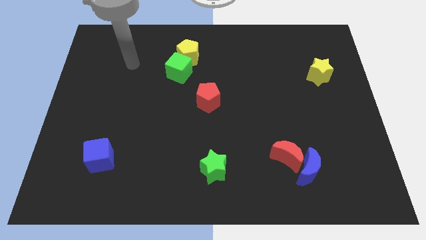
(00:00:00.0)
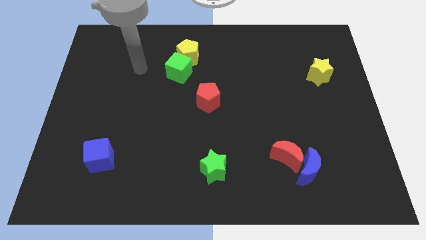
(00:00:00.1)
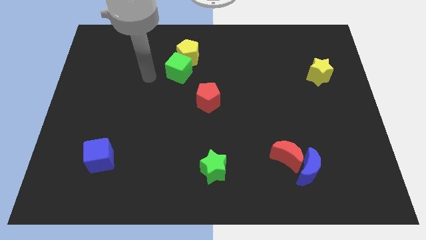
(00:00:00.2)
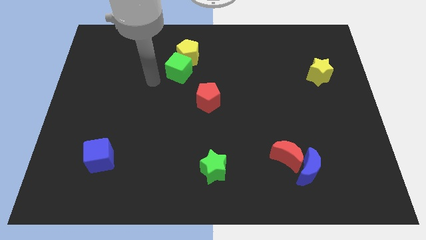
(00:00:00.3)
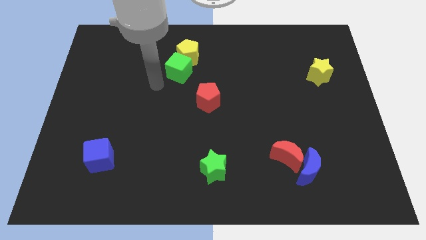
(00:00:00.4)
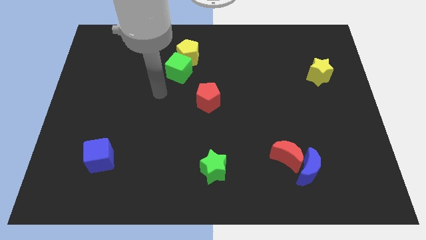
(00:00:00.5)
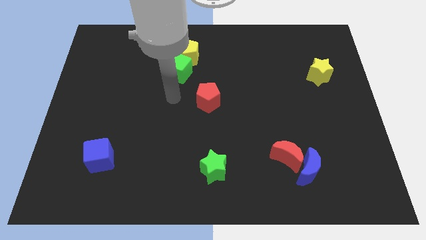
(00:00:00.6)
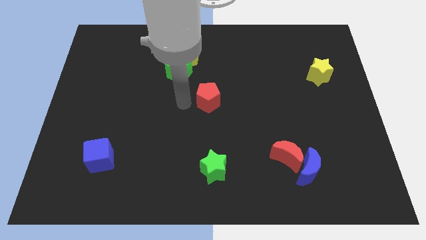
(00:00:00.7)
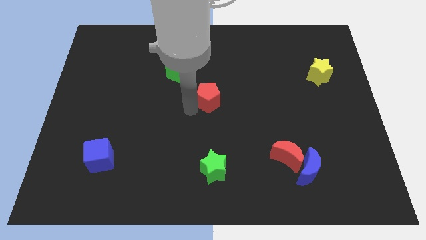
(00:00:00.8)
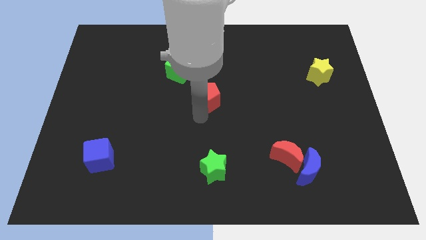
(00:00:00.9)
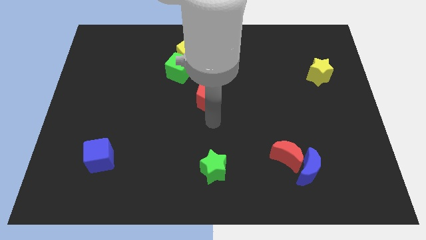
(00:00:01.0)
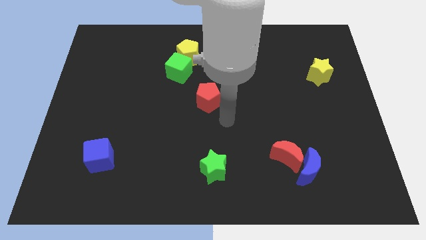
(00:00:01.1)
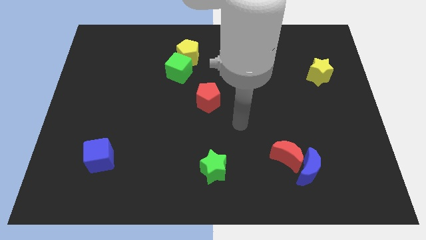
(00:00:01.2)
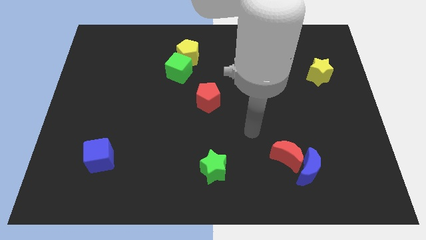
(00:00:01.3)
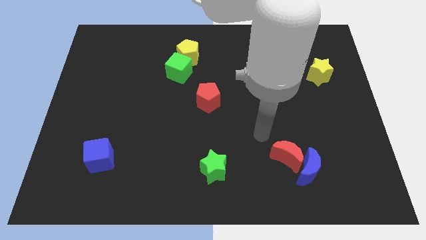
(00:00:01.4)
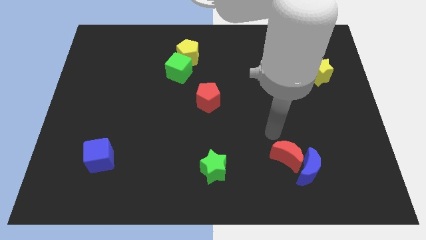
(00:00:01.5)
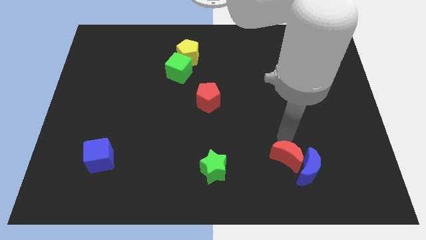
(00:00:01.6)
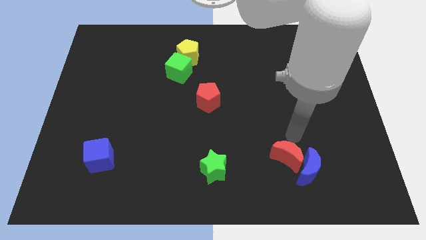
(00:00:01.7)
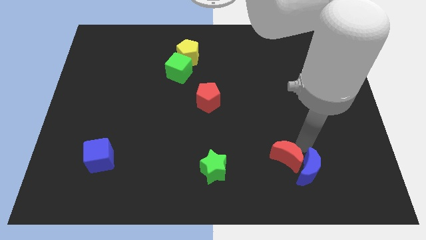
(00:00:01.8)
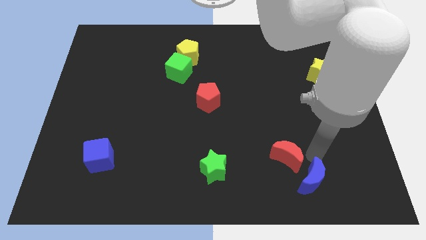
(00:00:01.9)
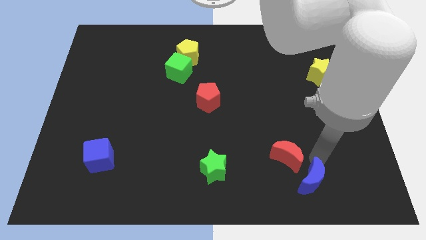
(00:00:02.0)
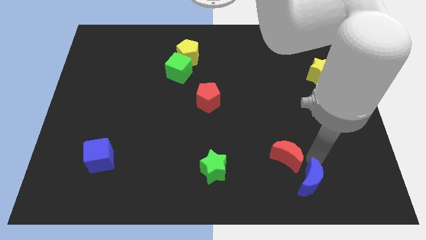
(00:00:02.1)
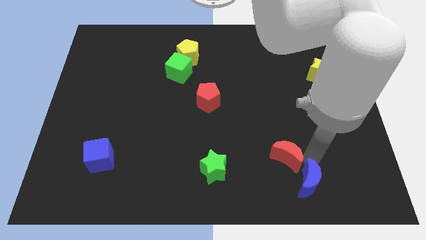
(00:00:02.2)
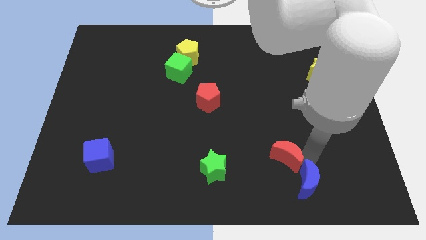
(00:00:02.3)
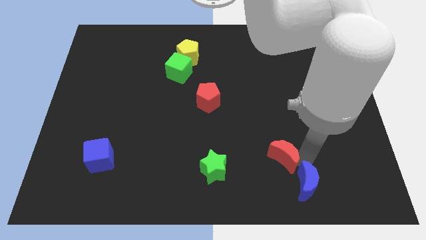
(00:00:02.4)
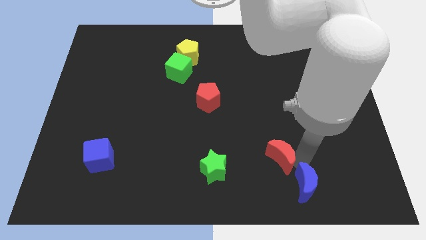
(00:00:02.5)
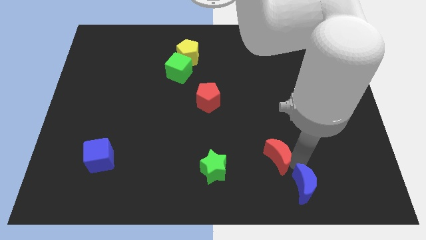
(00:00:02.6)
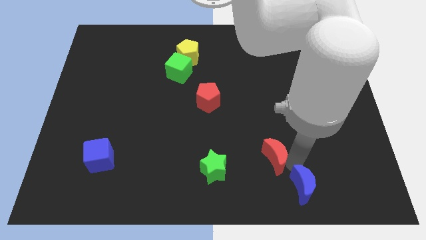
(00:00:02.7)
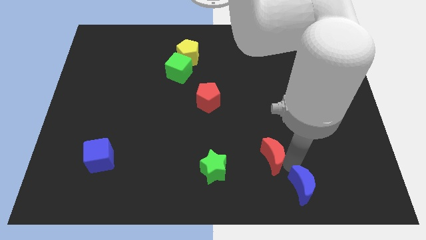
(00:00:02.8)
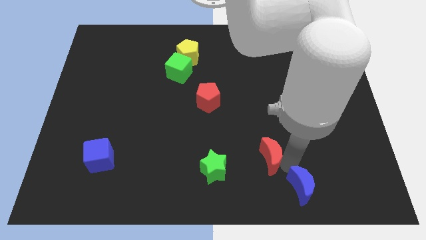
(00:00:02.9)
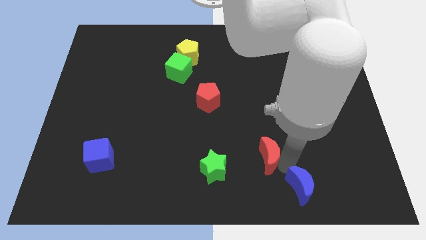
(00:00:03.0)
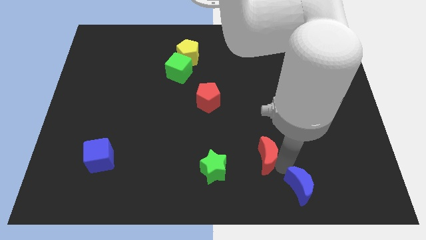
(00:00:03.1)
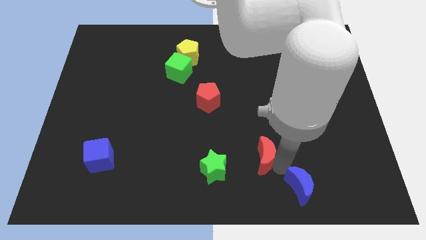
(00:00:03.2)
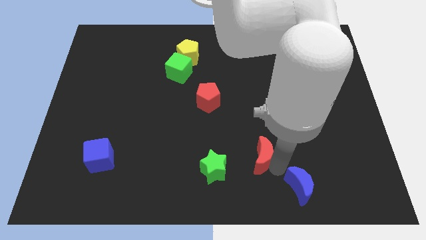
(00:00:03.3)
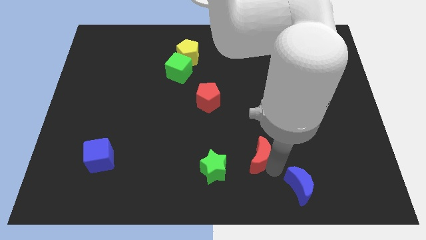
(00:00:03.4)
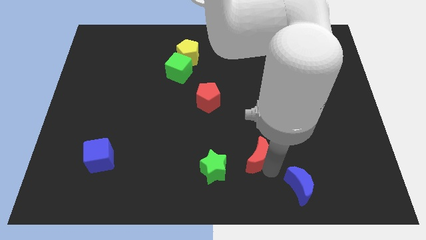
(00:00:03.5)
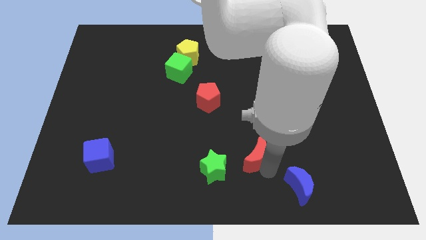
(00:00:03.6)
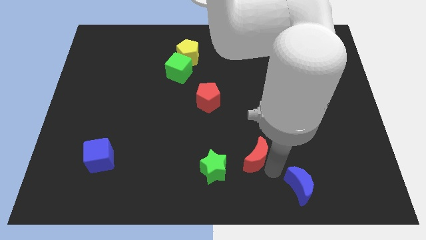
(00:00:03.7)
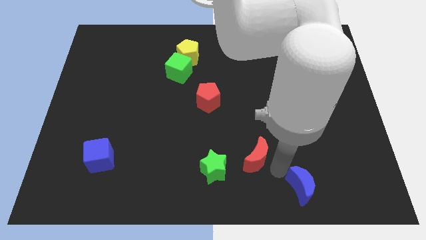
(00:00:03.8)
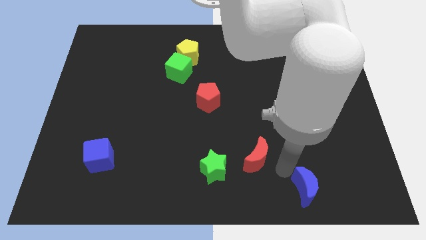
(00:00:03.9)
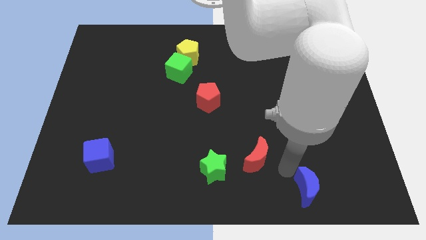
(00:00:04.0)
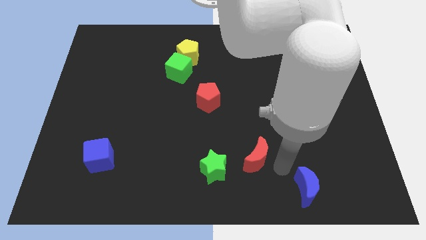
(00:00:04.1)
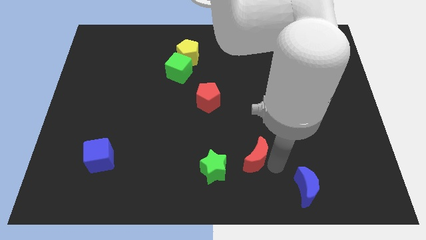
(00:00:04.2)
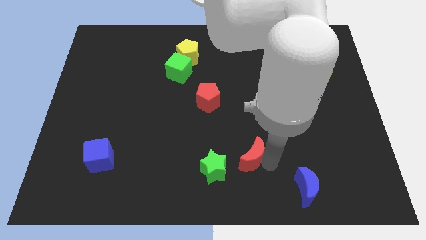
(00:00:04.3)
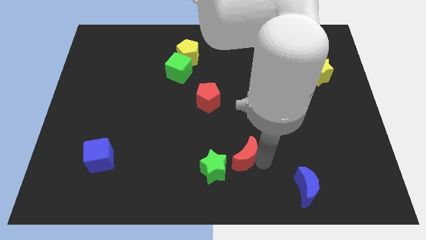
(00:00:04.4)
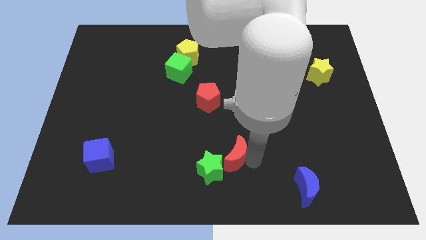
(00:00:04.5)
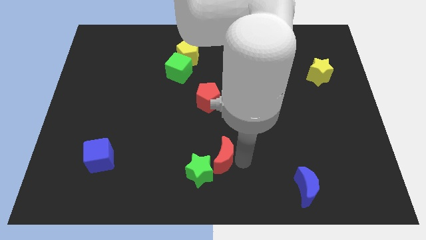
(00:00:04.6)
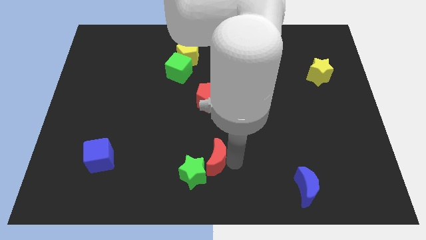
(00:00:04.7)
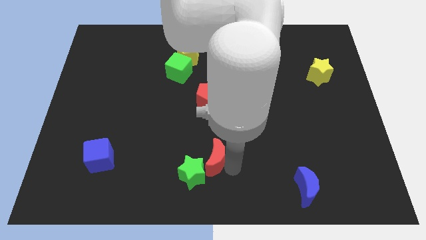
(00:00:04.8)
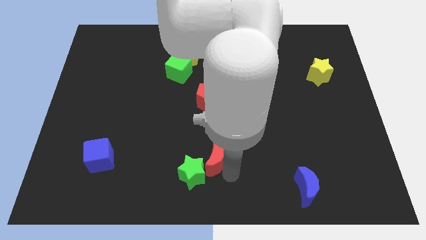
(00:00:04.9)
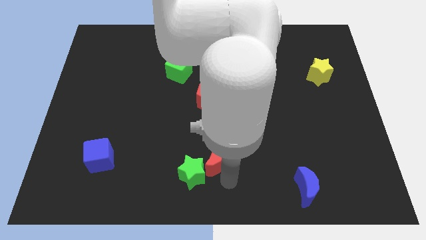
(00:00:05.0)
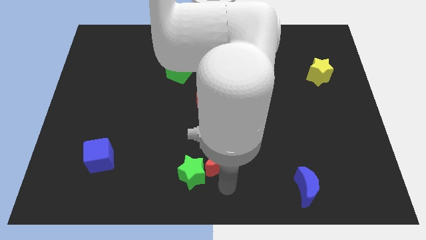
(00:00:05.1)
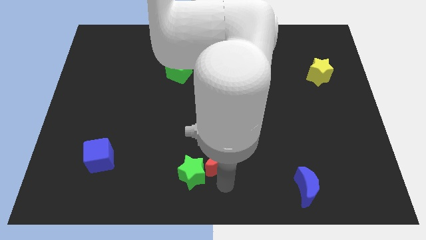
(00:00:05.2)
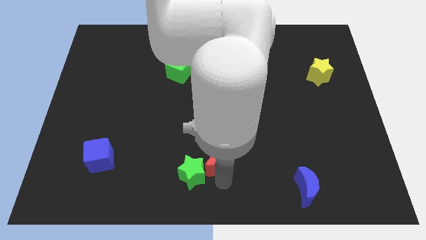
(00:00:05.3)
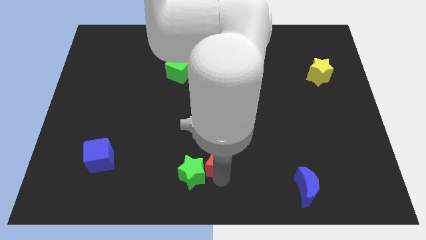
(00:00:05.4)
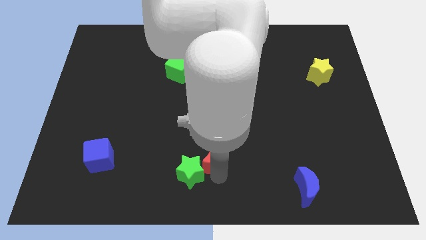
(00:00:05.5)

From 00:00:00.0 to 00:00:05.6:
move the red moon to the bottom side of the red pentagon

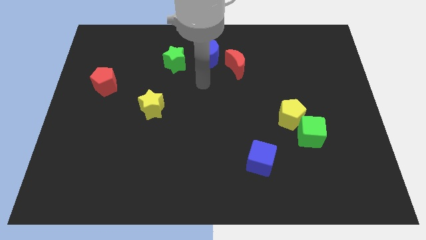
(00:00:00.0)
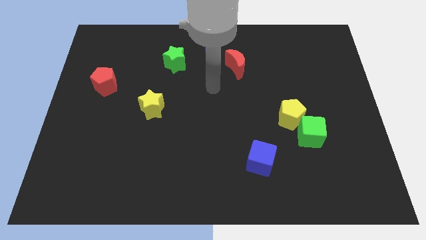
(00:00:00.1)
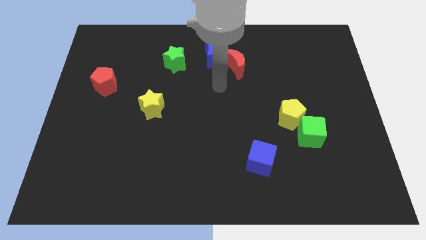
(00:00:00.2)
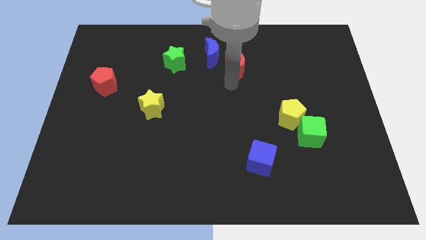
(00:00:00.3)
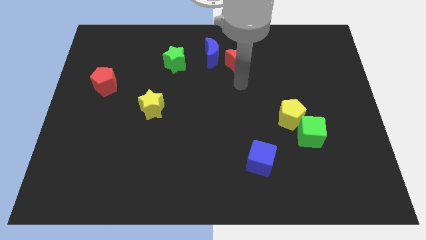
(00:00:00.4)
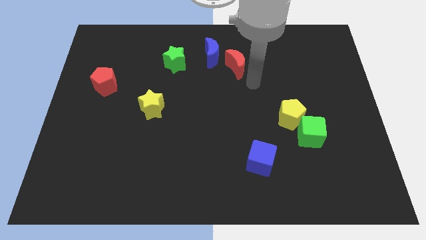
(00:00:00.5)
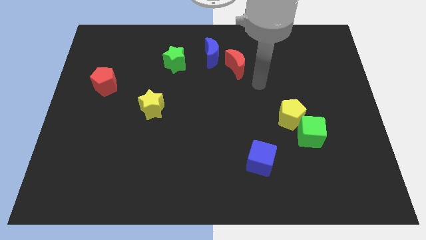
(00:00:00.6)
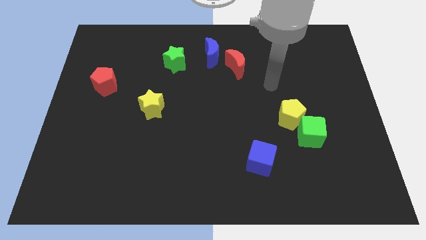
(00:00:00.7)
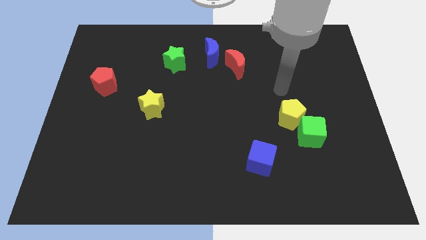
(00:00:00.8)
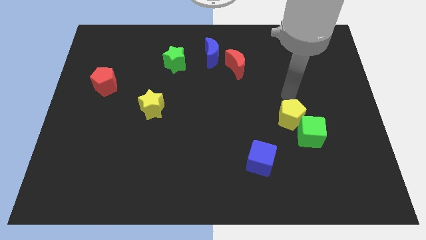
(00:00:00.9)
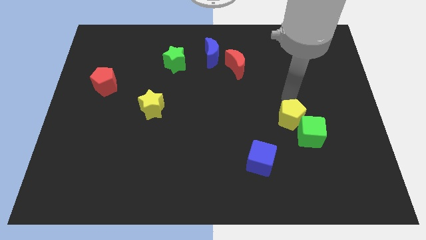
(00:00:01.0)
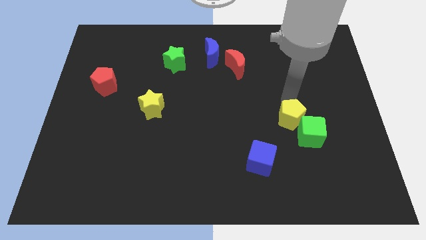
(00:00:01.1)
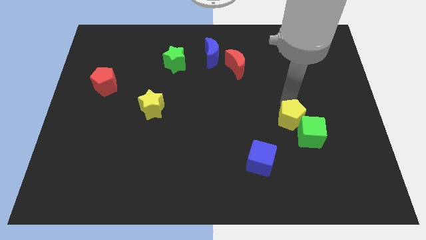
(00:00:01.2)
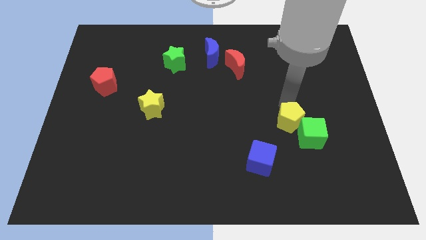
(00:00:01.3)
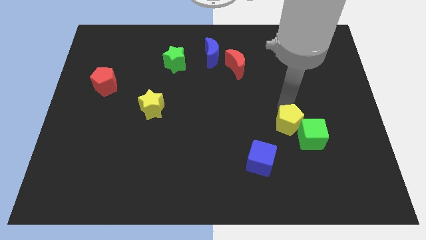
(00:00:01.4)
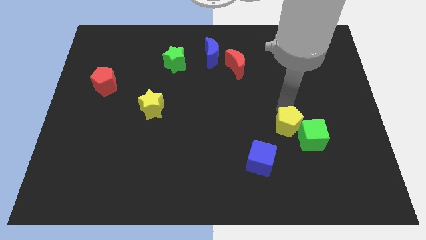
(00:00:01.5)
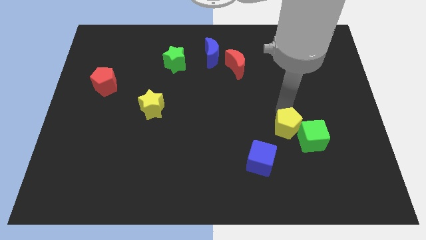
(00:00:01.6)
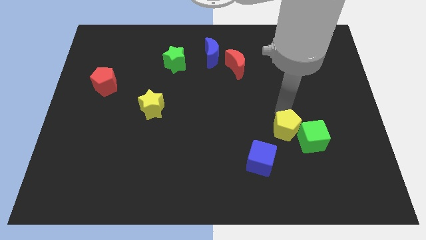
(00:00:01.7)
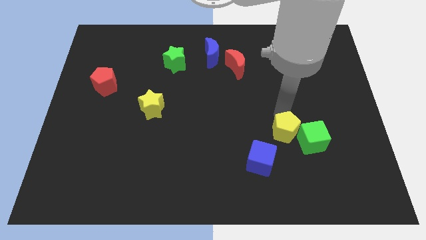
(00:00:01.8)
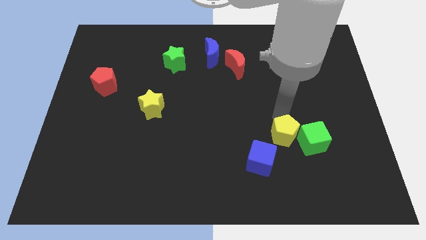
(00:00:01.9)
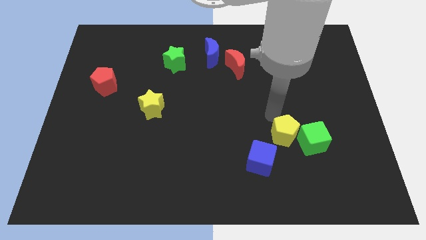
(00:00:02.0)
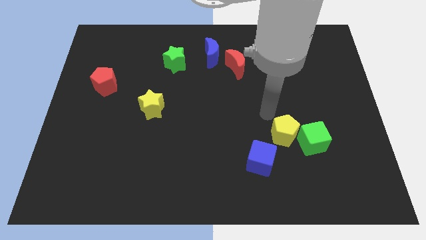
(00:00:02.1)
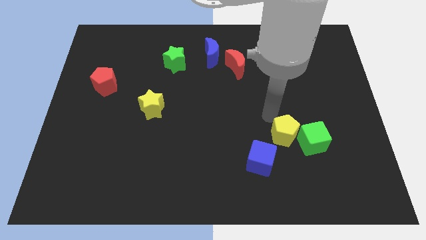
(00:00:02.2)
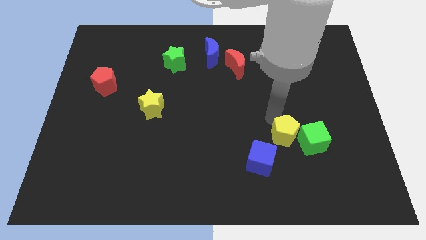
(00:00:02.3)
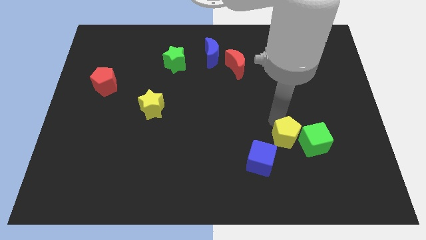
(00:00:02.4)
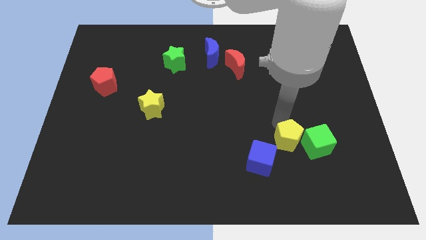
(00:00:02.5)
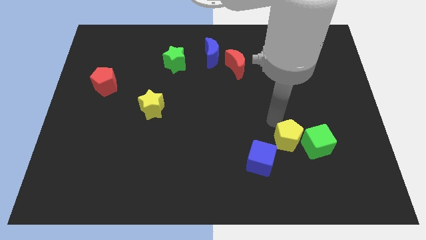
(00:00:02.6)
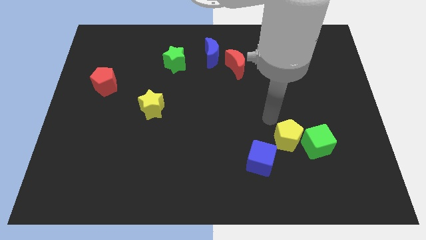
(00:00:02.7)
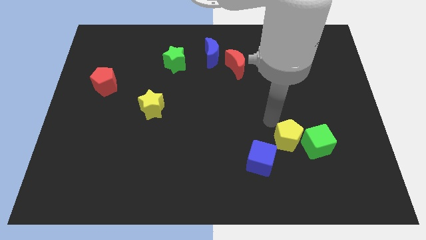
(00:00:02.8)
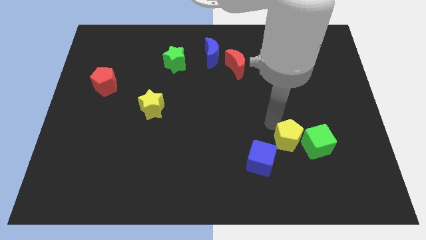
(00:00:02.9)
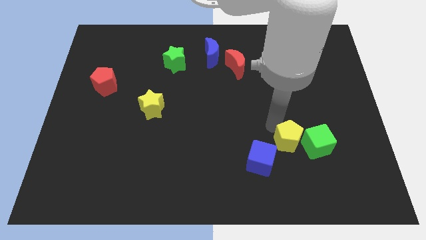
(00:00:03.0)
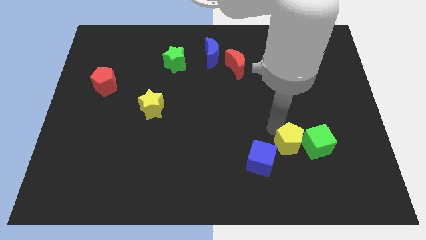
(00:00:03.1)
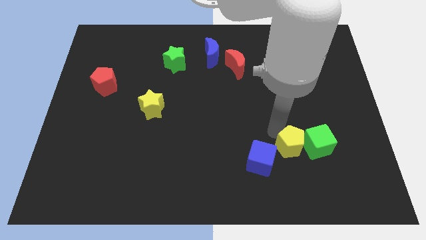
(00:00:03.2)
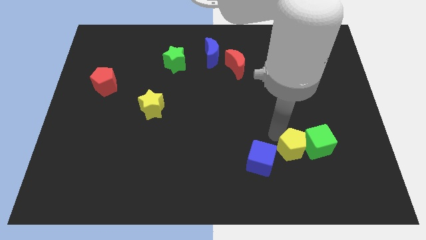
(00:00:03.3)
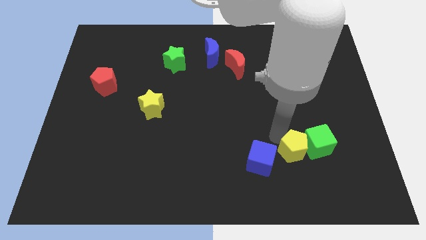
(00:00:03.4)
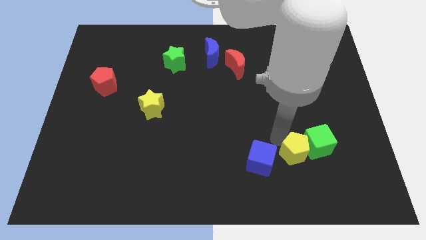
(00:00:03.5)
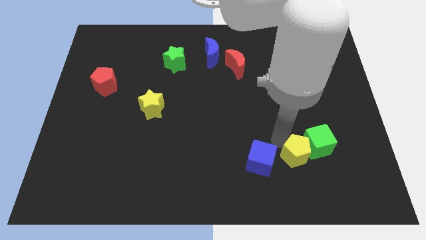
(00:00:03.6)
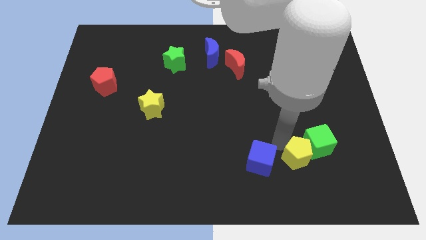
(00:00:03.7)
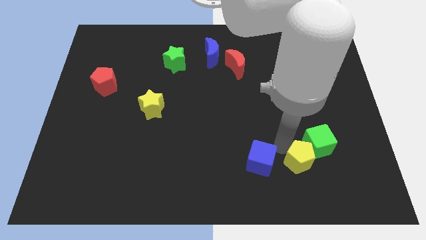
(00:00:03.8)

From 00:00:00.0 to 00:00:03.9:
put the yellow pentagon to the bottom of the green cube
